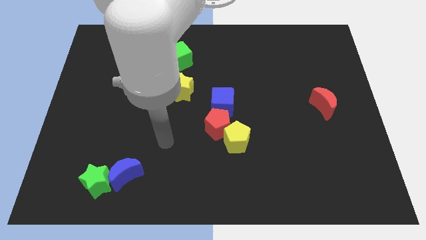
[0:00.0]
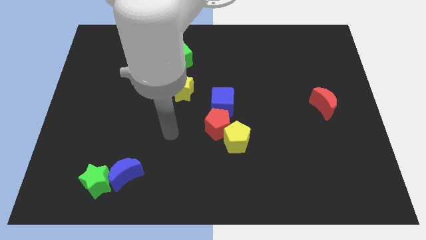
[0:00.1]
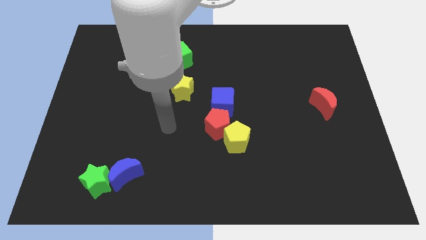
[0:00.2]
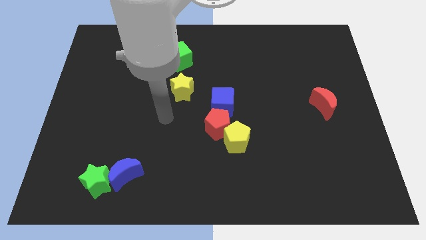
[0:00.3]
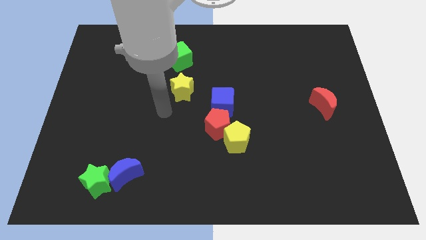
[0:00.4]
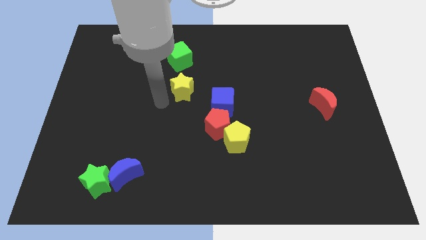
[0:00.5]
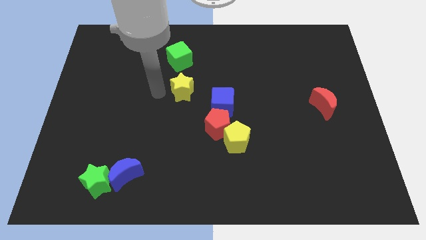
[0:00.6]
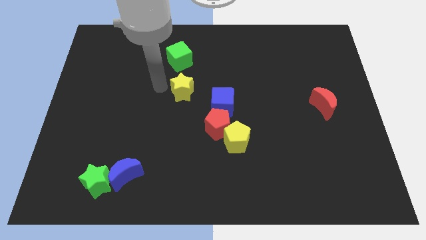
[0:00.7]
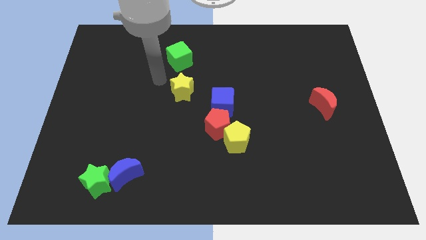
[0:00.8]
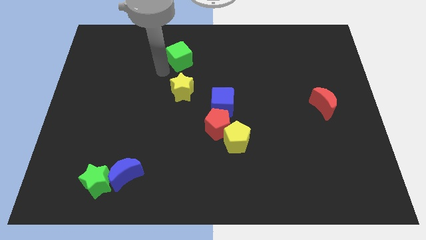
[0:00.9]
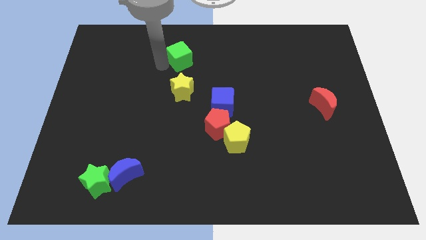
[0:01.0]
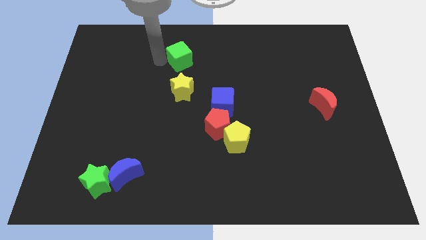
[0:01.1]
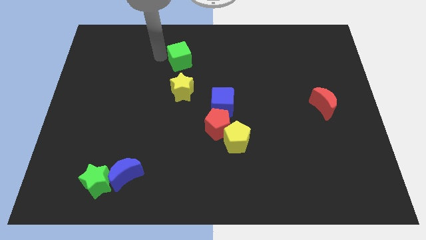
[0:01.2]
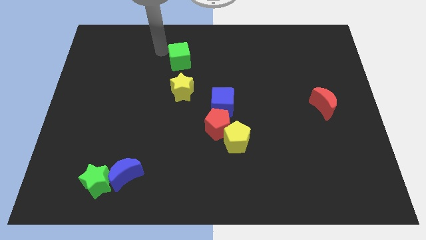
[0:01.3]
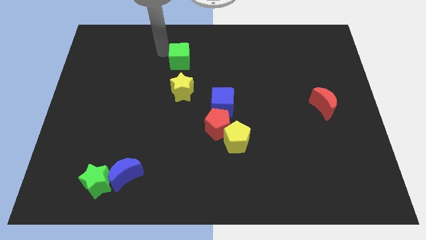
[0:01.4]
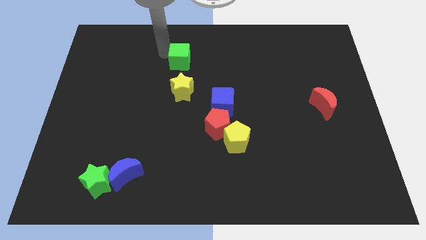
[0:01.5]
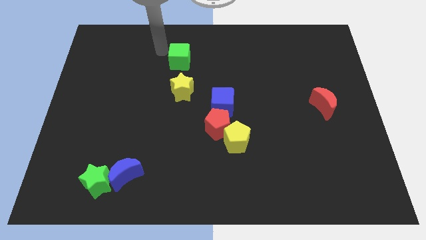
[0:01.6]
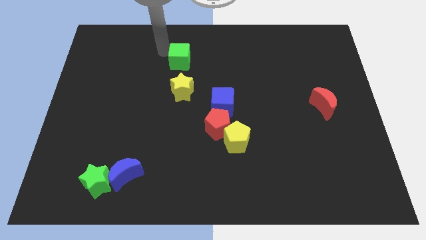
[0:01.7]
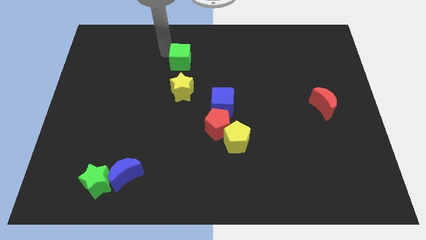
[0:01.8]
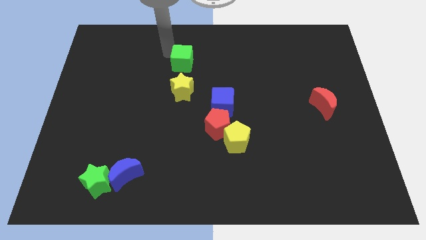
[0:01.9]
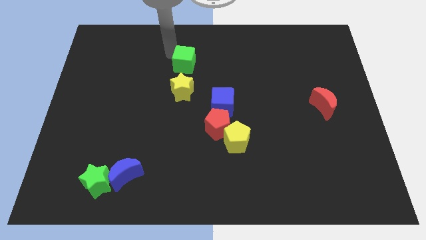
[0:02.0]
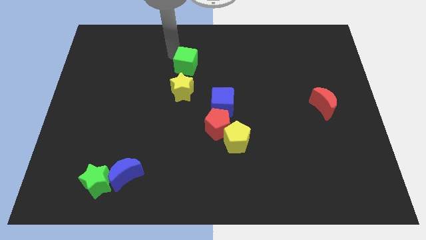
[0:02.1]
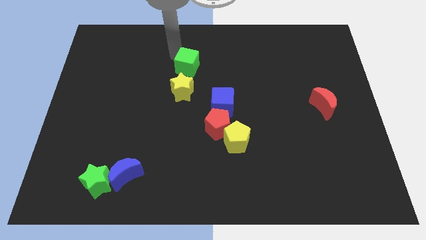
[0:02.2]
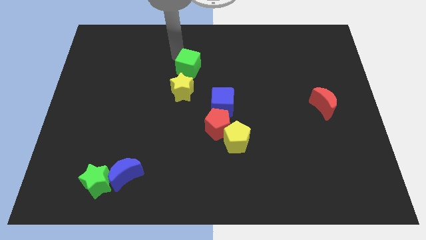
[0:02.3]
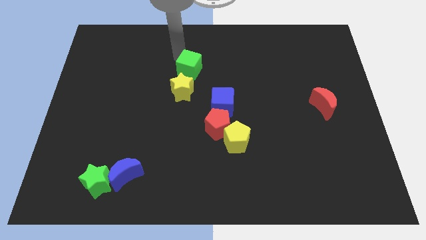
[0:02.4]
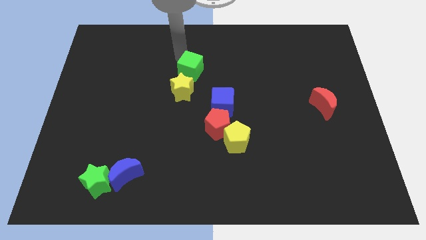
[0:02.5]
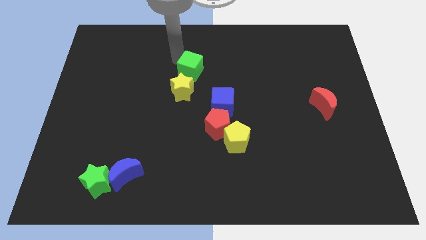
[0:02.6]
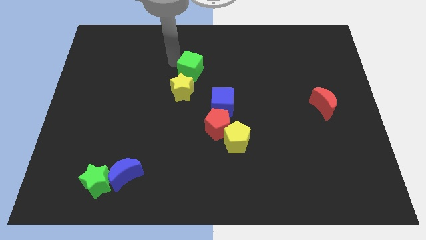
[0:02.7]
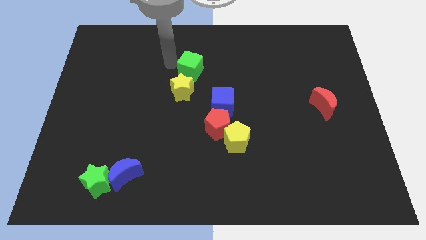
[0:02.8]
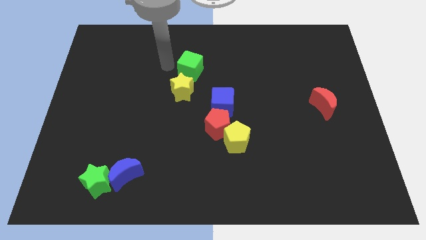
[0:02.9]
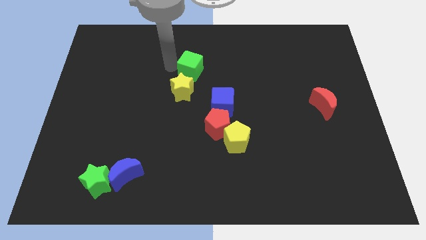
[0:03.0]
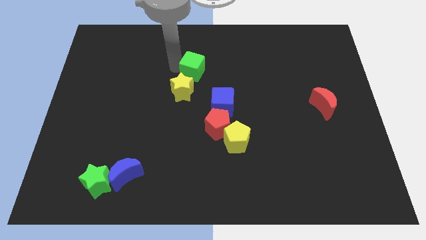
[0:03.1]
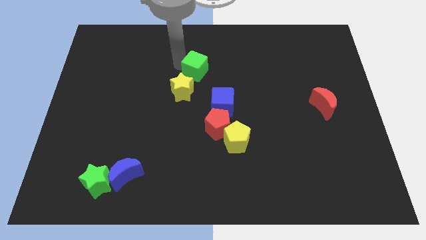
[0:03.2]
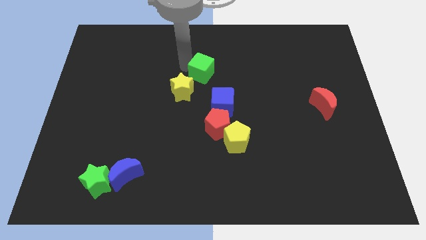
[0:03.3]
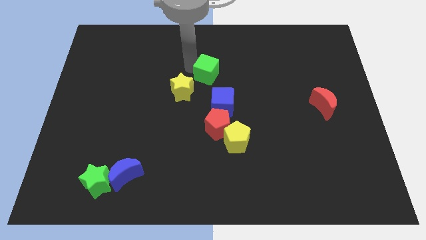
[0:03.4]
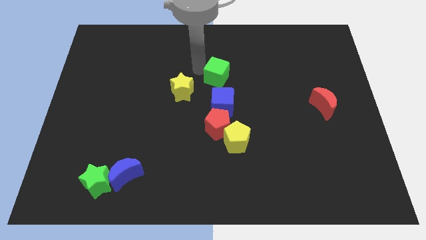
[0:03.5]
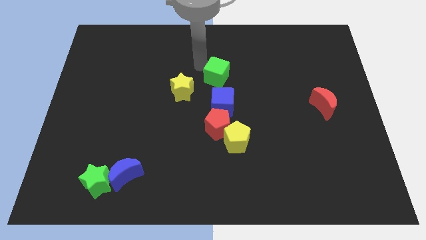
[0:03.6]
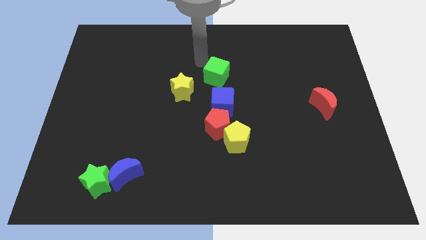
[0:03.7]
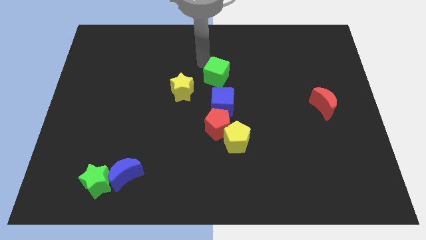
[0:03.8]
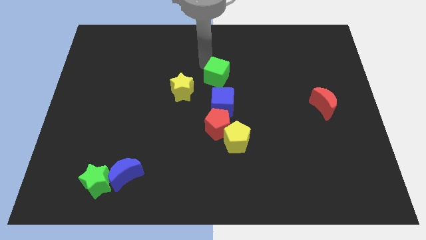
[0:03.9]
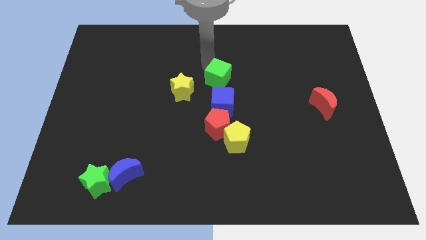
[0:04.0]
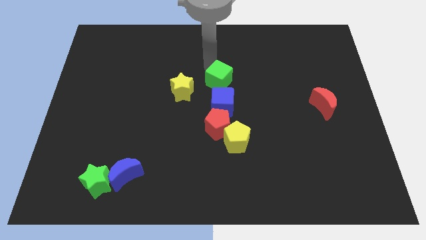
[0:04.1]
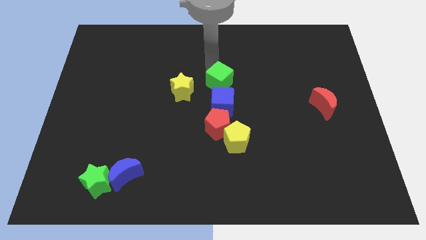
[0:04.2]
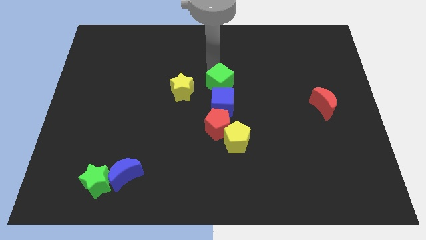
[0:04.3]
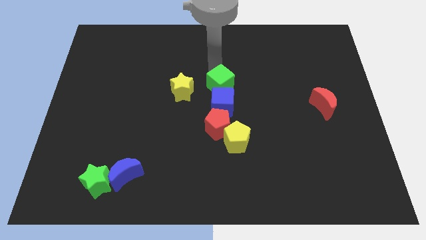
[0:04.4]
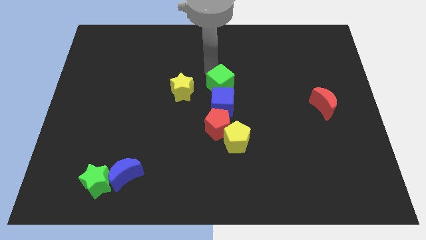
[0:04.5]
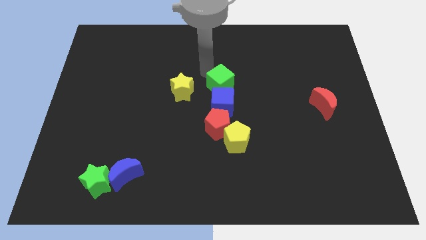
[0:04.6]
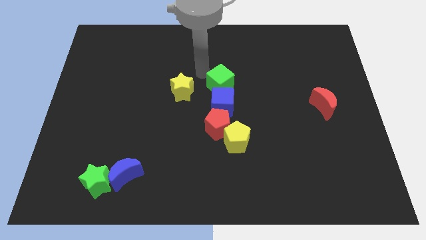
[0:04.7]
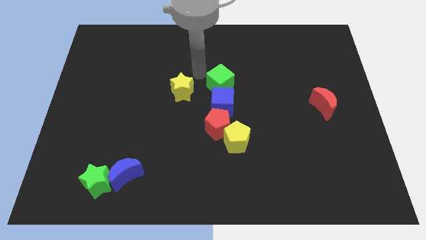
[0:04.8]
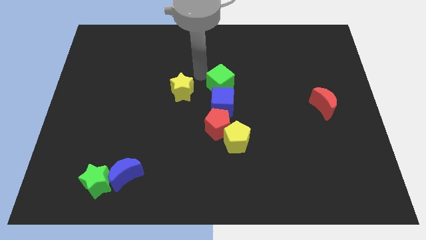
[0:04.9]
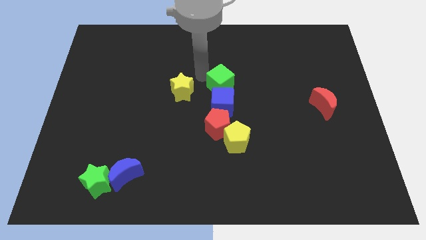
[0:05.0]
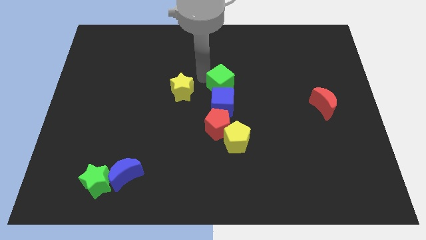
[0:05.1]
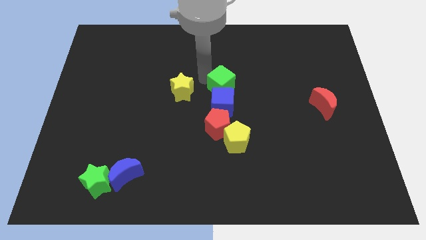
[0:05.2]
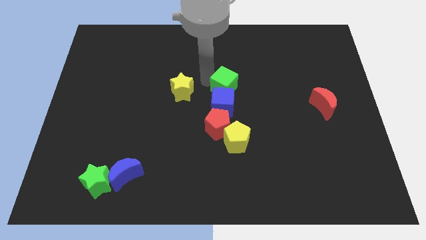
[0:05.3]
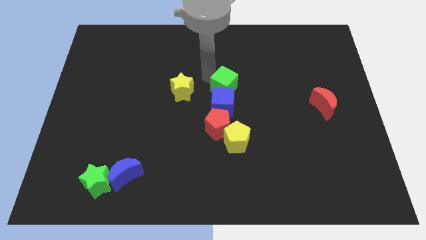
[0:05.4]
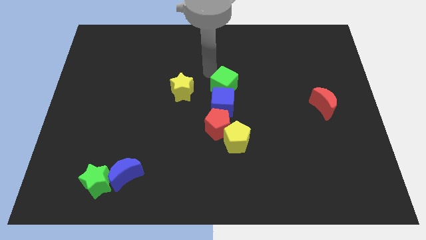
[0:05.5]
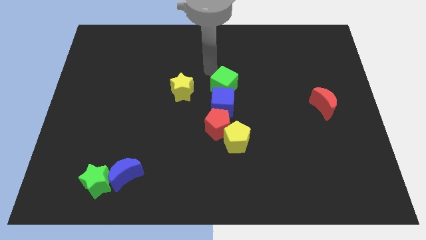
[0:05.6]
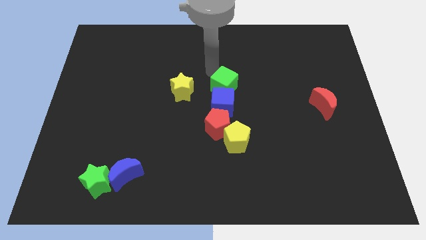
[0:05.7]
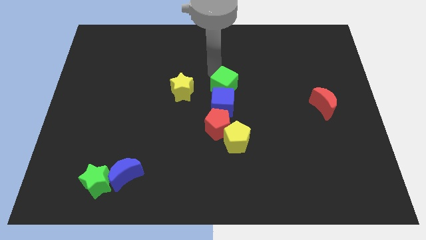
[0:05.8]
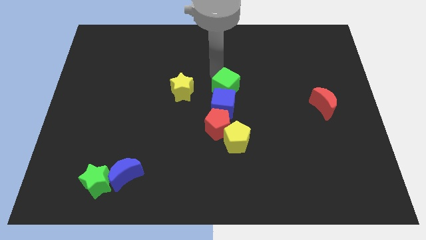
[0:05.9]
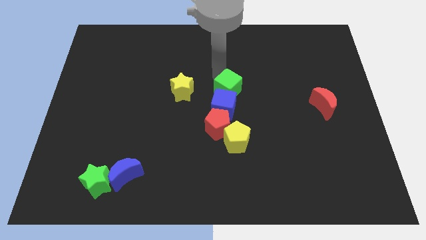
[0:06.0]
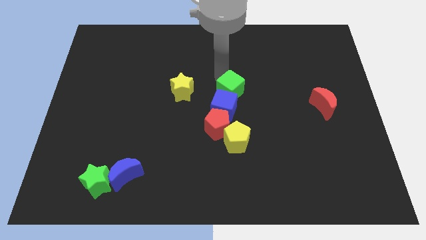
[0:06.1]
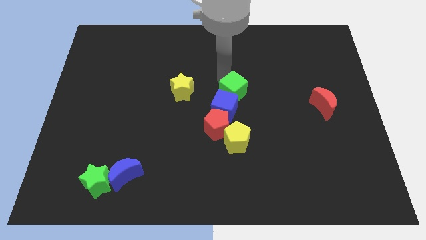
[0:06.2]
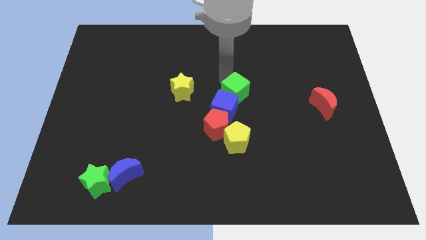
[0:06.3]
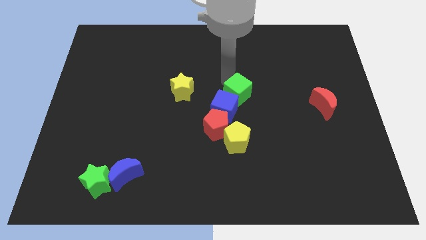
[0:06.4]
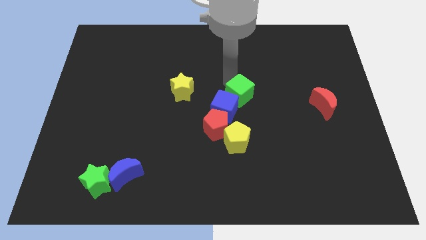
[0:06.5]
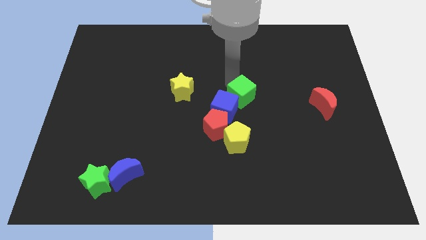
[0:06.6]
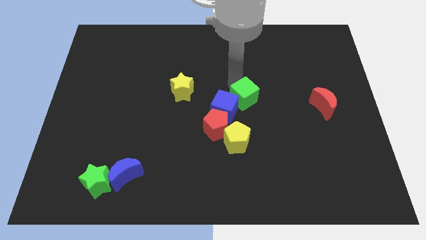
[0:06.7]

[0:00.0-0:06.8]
slide the green cube downwards and to the right diagonally

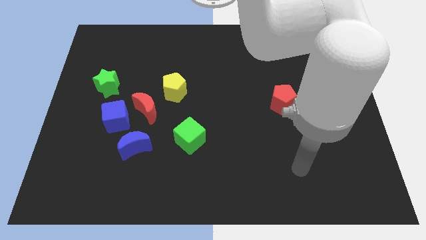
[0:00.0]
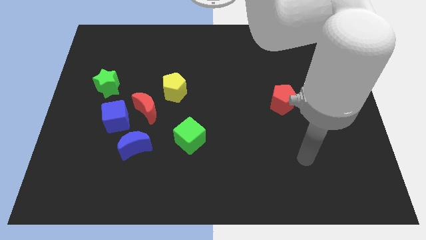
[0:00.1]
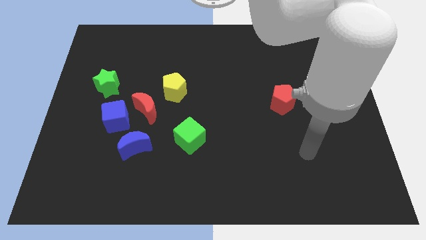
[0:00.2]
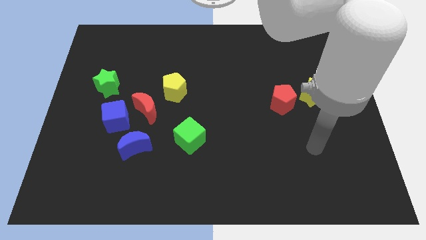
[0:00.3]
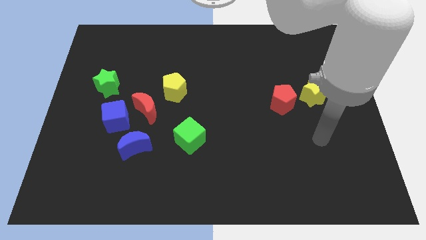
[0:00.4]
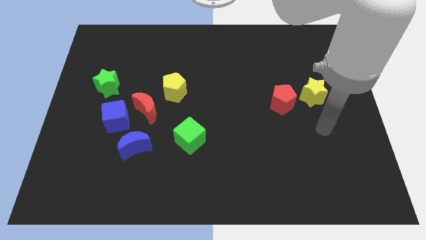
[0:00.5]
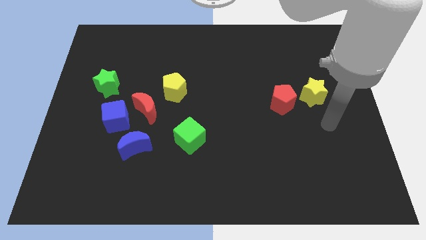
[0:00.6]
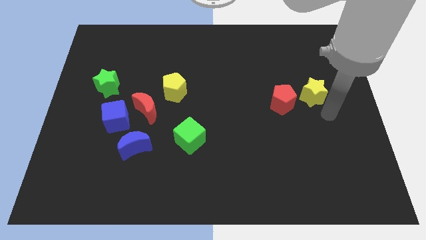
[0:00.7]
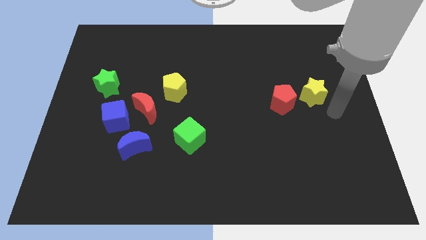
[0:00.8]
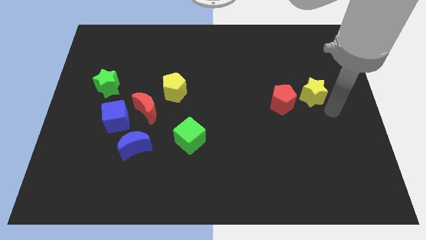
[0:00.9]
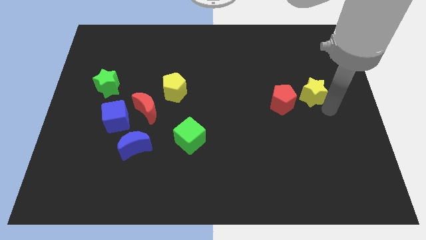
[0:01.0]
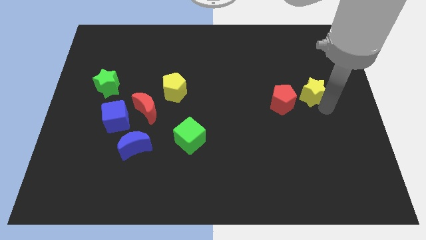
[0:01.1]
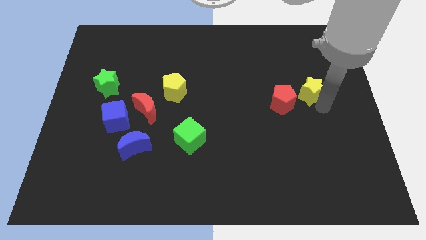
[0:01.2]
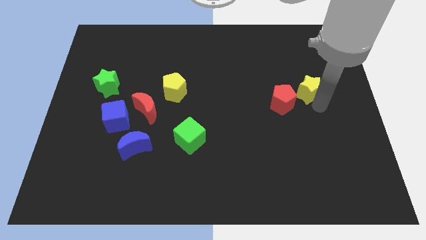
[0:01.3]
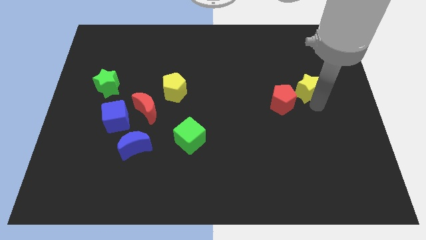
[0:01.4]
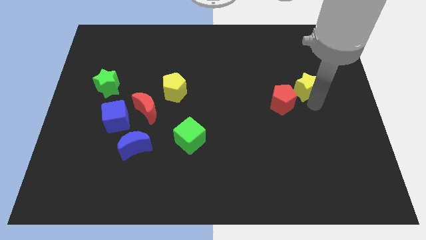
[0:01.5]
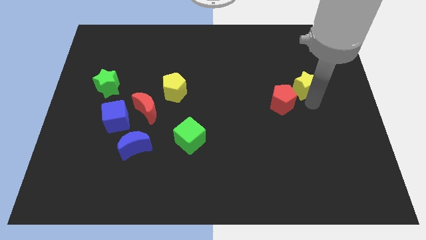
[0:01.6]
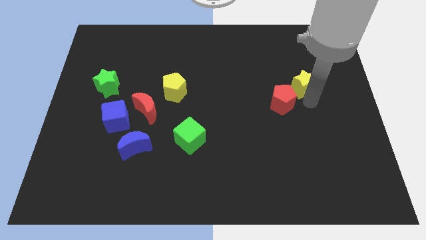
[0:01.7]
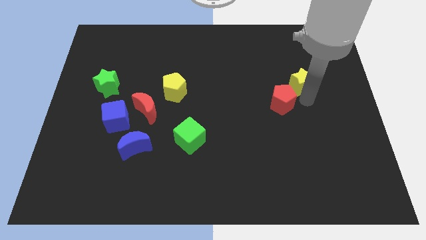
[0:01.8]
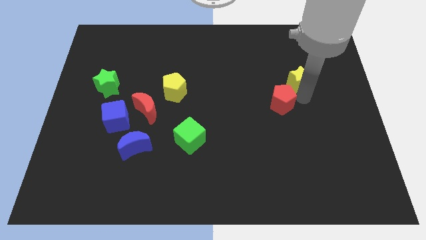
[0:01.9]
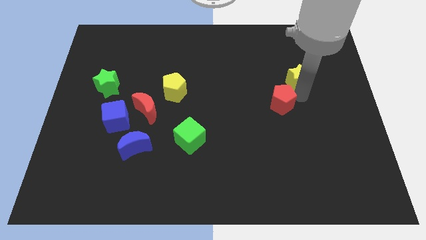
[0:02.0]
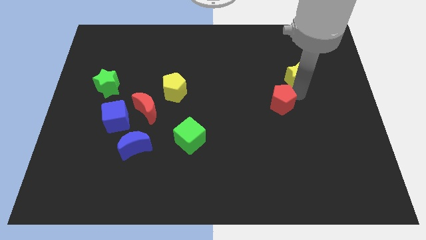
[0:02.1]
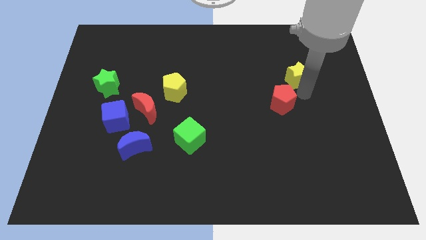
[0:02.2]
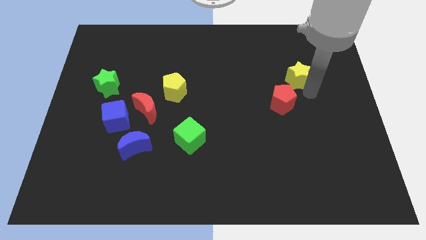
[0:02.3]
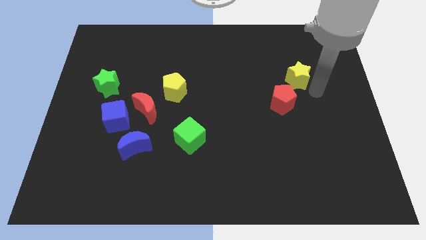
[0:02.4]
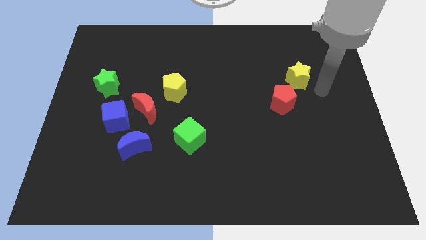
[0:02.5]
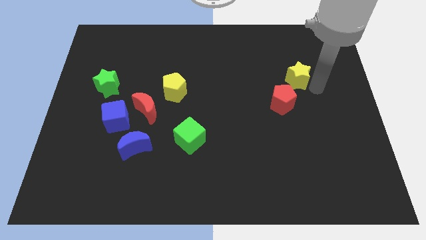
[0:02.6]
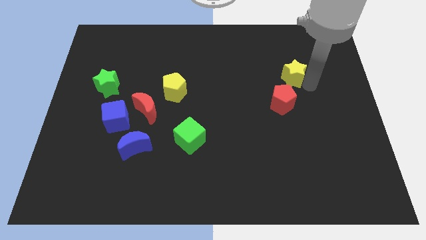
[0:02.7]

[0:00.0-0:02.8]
slide the yellow star somewhat up and left
